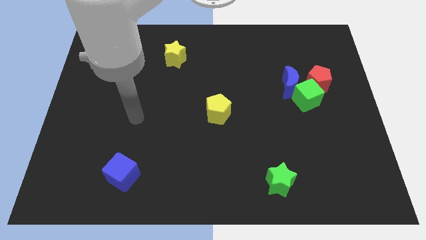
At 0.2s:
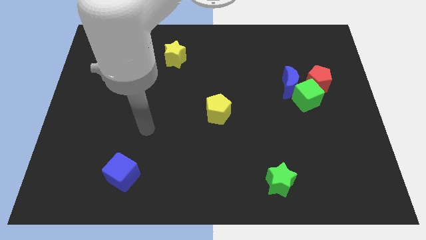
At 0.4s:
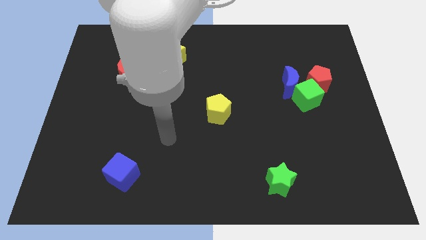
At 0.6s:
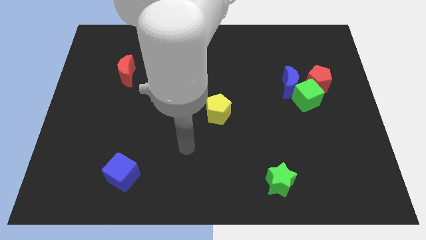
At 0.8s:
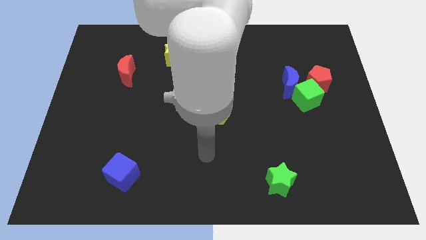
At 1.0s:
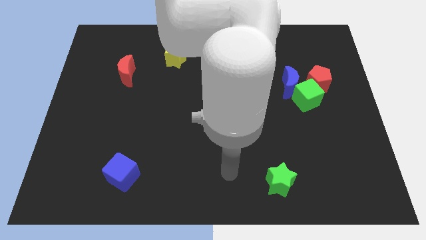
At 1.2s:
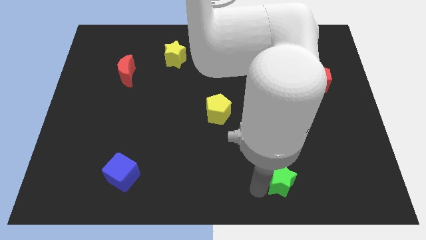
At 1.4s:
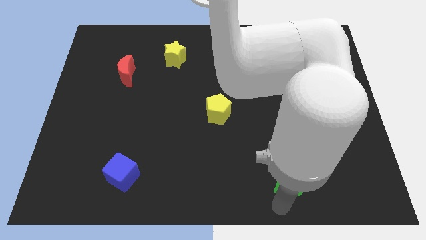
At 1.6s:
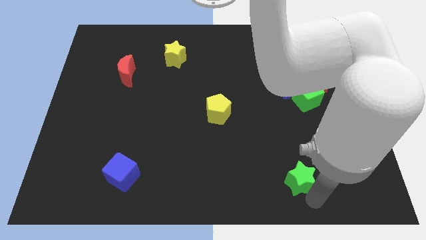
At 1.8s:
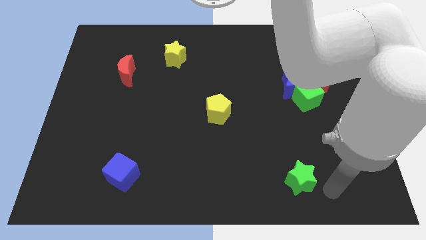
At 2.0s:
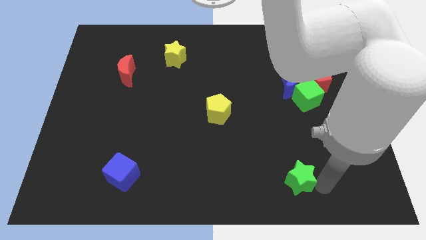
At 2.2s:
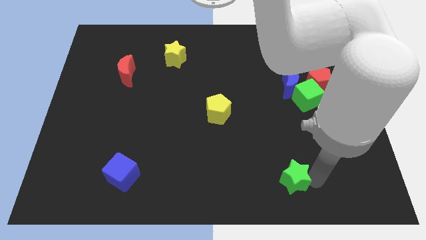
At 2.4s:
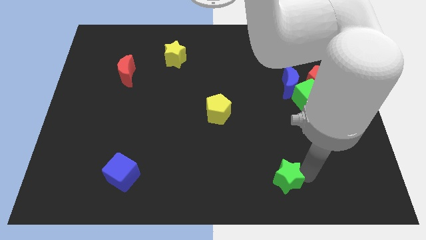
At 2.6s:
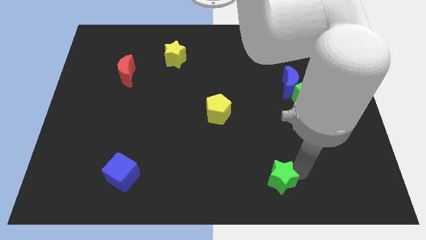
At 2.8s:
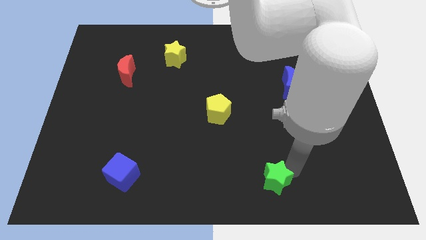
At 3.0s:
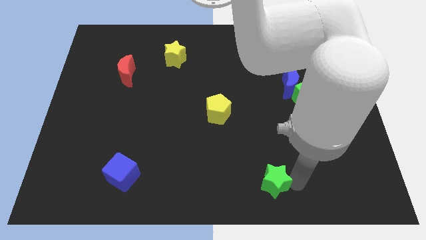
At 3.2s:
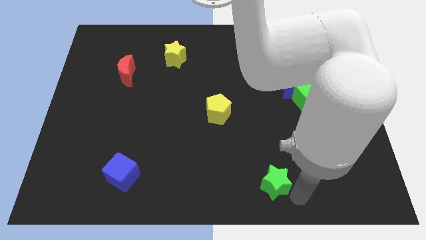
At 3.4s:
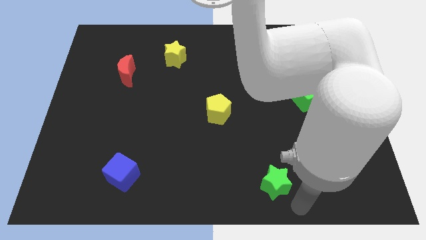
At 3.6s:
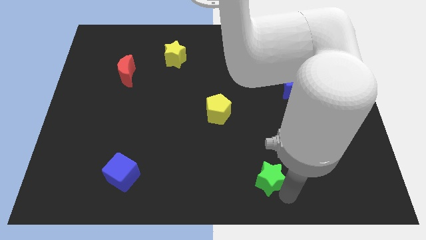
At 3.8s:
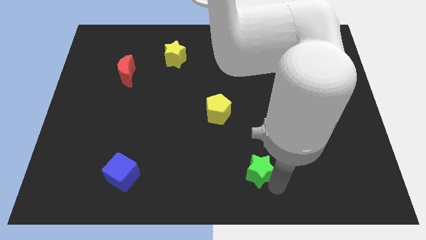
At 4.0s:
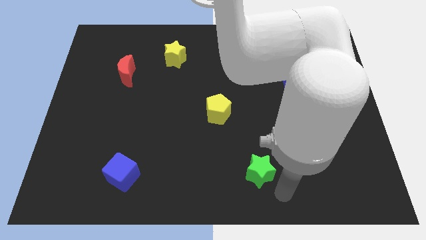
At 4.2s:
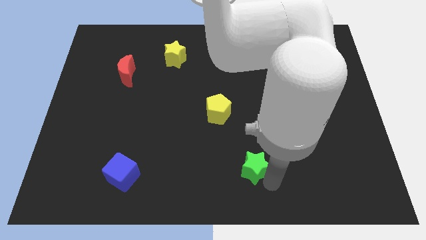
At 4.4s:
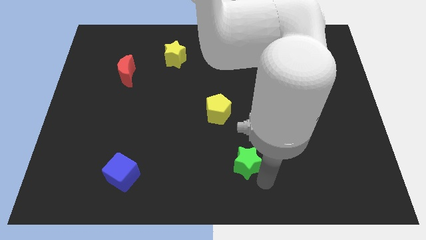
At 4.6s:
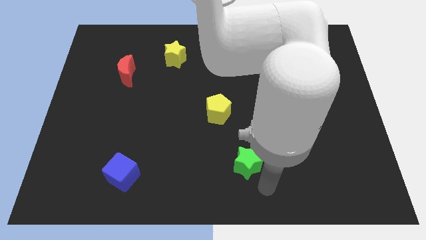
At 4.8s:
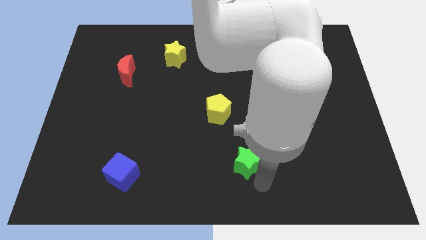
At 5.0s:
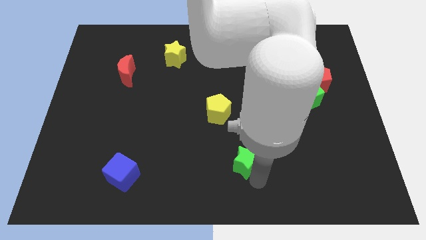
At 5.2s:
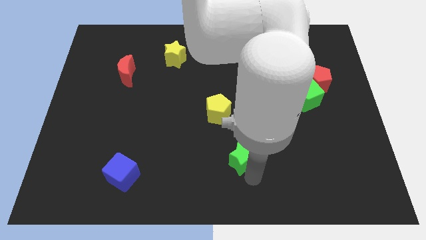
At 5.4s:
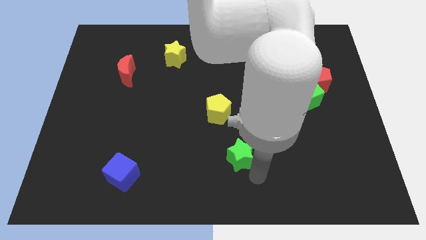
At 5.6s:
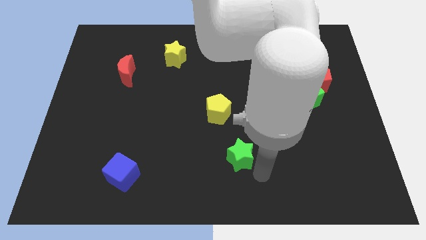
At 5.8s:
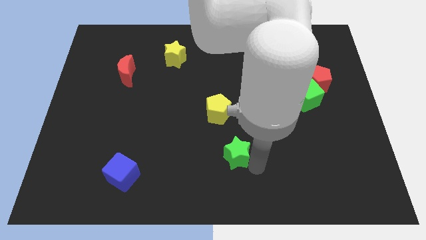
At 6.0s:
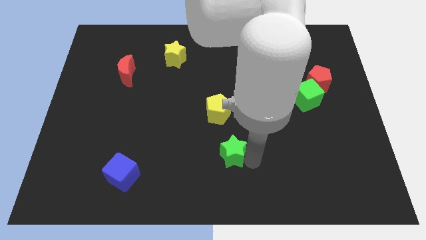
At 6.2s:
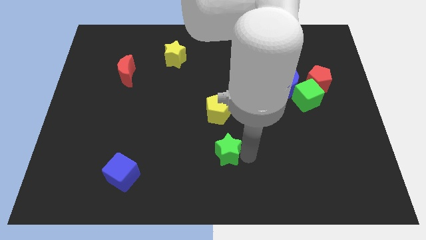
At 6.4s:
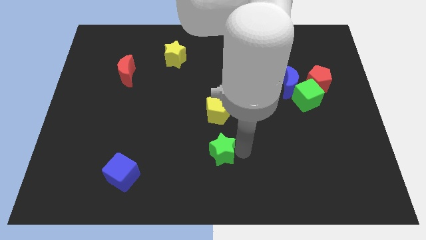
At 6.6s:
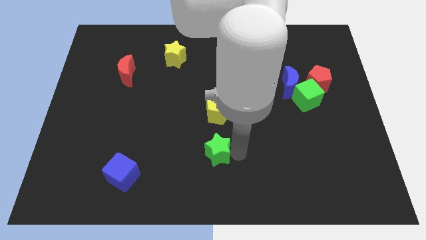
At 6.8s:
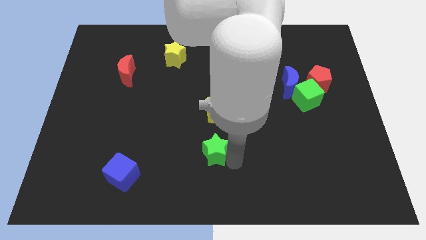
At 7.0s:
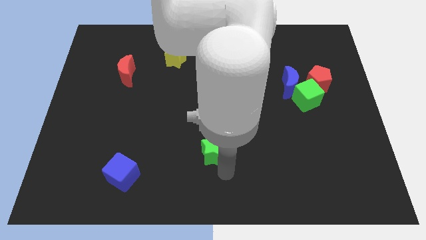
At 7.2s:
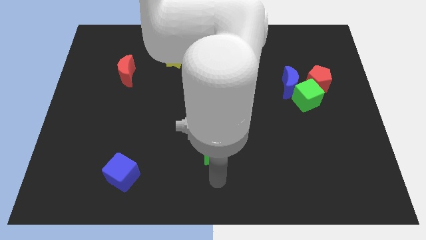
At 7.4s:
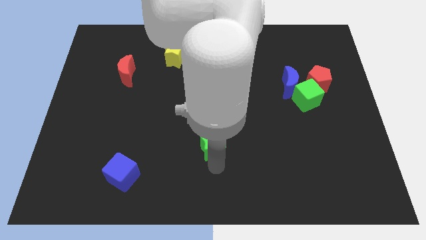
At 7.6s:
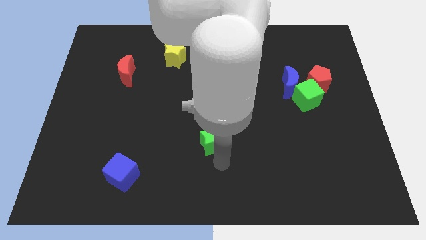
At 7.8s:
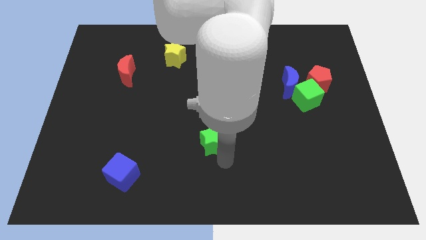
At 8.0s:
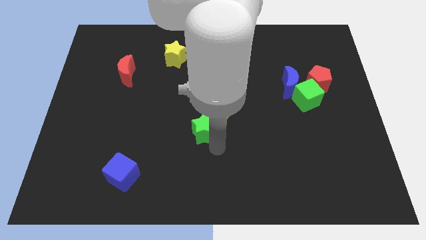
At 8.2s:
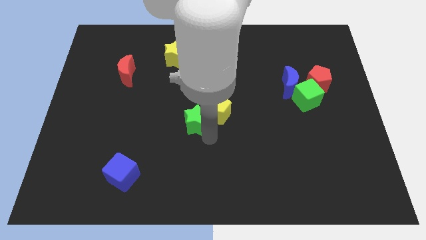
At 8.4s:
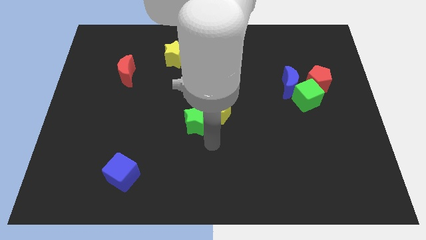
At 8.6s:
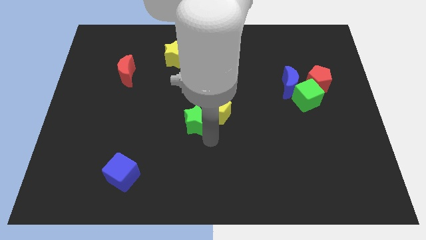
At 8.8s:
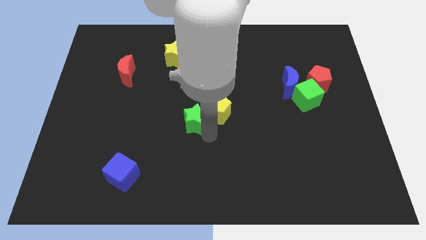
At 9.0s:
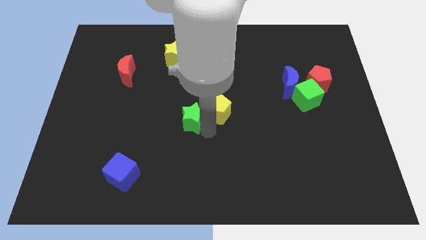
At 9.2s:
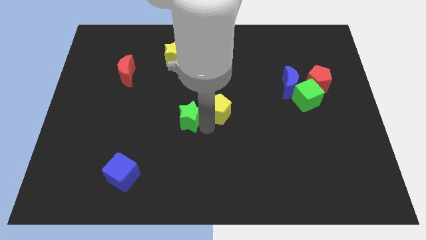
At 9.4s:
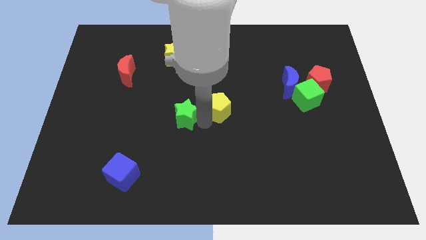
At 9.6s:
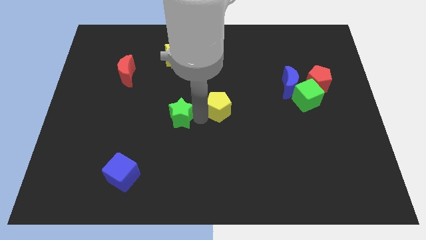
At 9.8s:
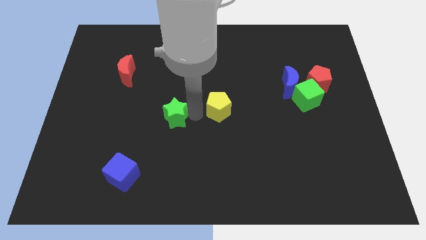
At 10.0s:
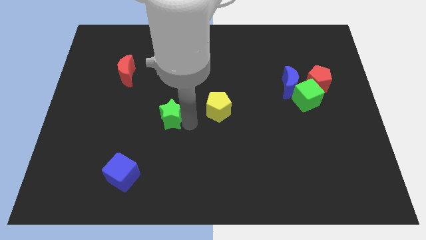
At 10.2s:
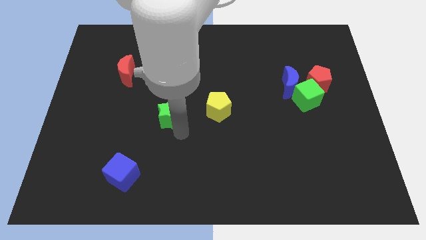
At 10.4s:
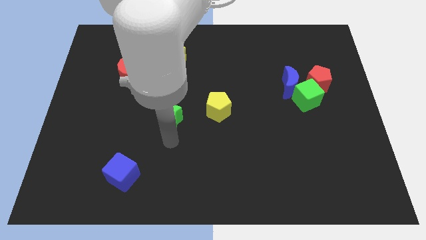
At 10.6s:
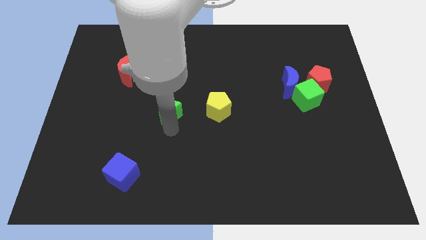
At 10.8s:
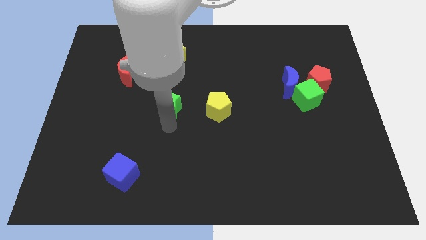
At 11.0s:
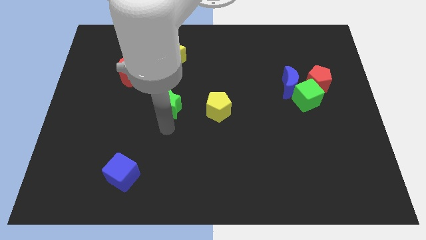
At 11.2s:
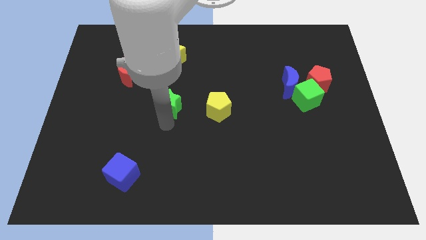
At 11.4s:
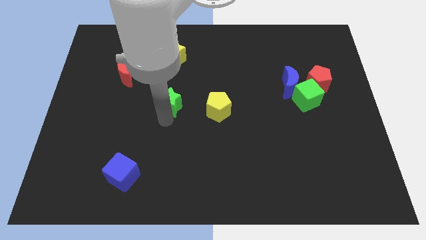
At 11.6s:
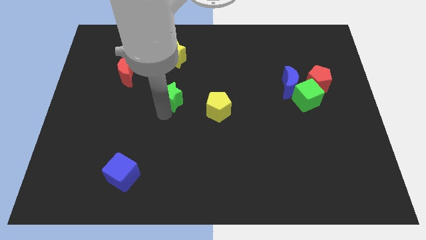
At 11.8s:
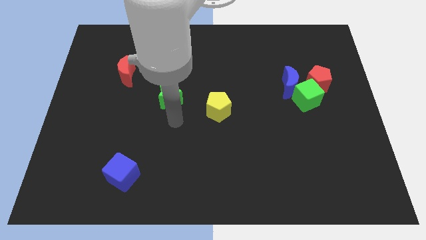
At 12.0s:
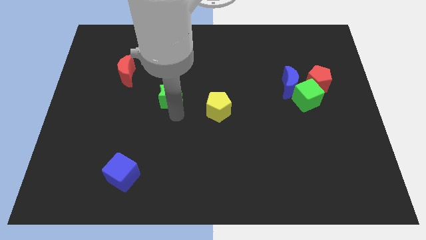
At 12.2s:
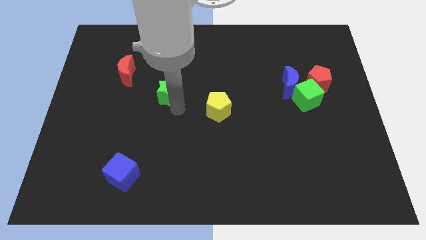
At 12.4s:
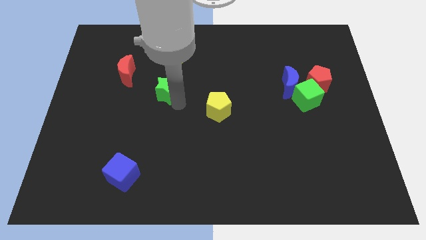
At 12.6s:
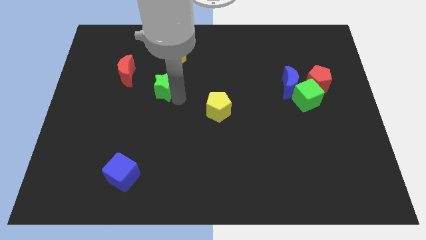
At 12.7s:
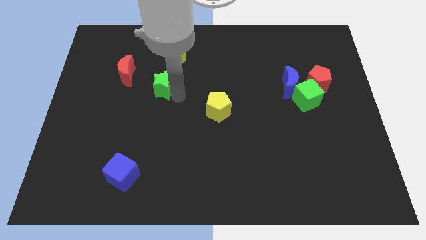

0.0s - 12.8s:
slide the green star right of the red moon

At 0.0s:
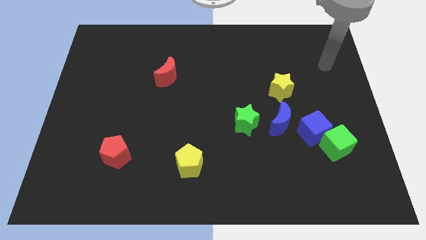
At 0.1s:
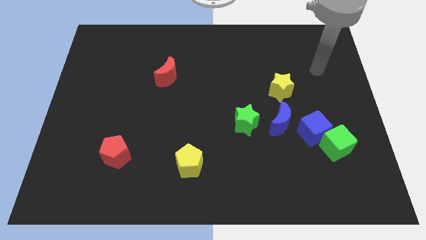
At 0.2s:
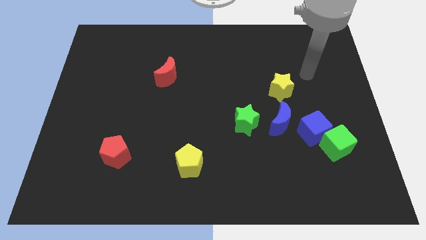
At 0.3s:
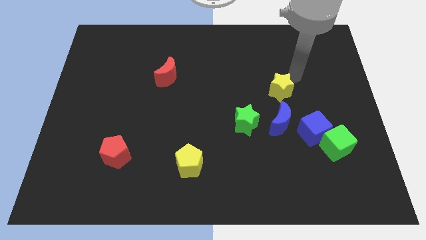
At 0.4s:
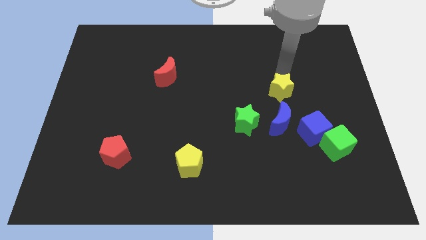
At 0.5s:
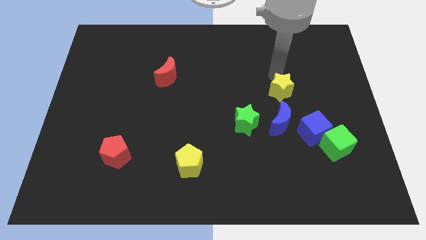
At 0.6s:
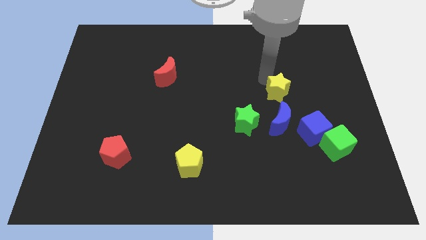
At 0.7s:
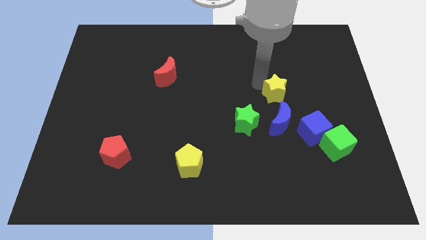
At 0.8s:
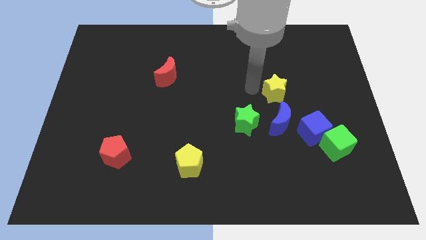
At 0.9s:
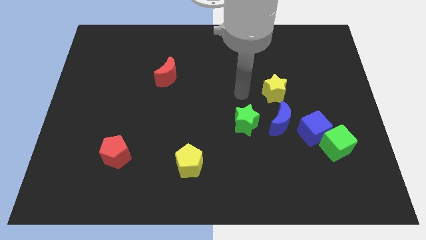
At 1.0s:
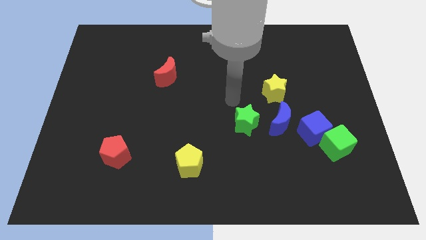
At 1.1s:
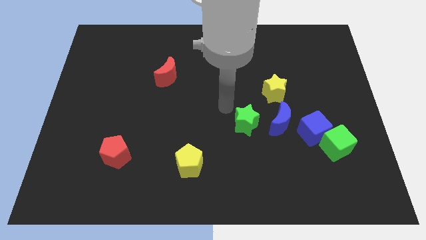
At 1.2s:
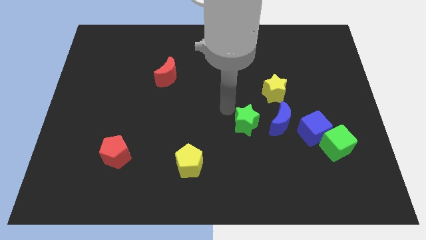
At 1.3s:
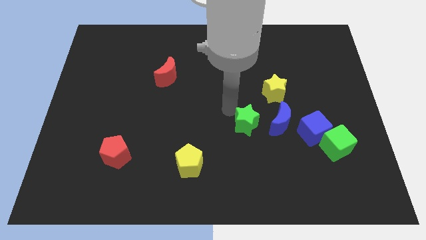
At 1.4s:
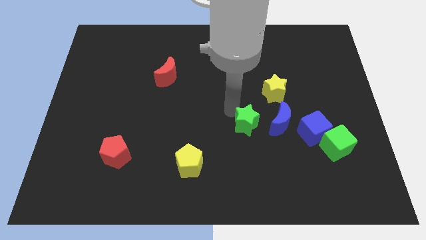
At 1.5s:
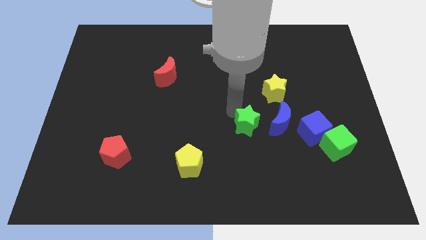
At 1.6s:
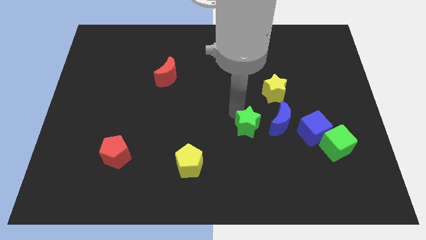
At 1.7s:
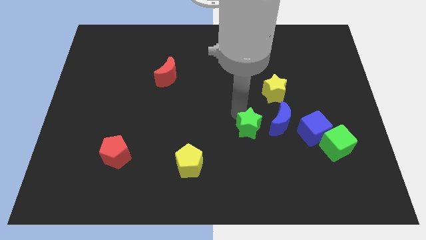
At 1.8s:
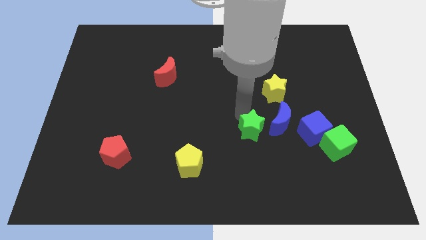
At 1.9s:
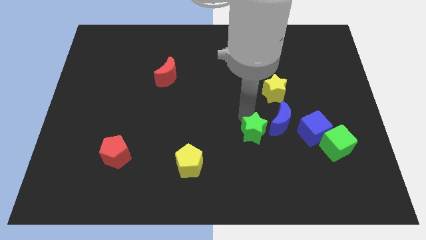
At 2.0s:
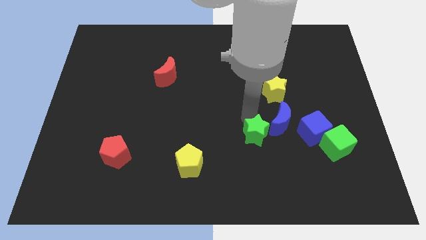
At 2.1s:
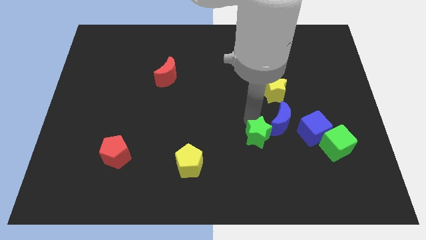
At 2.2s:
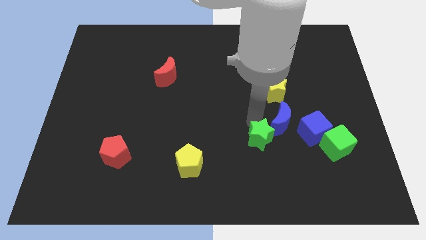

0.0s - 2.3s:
slide the green star below the yellow star
